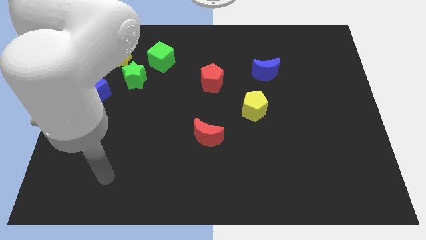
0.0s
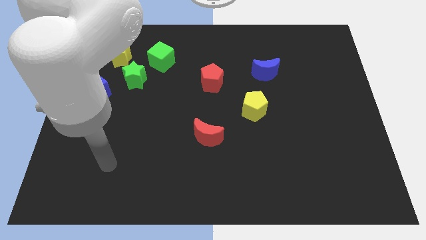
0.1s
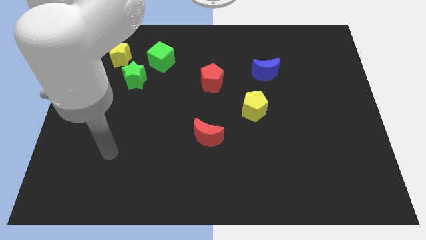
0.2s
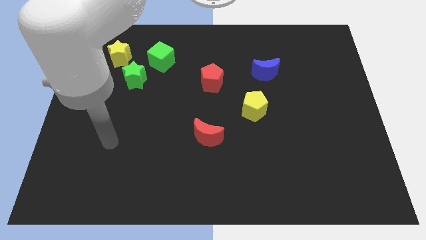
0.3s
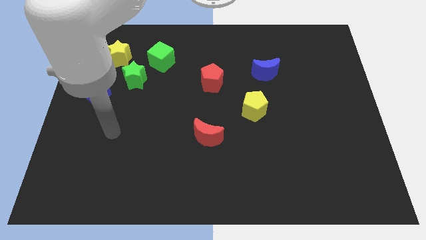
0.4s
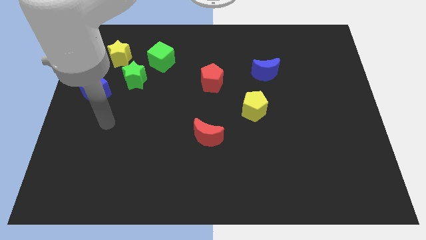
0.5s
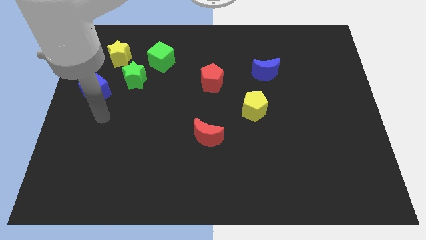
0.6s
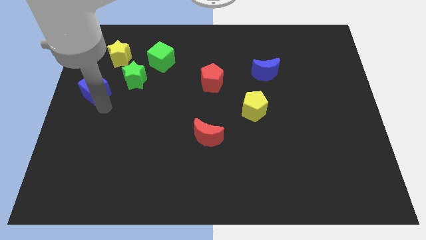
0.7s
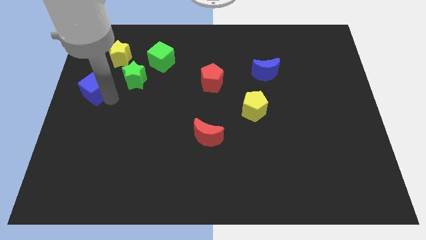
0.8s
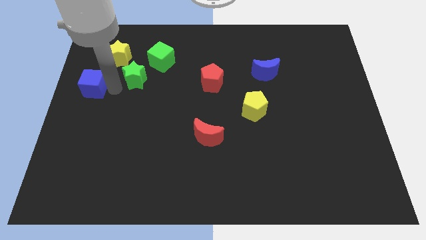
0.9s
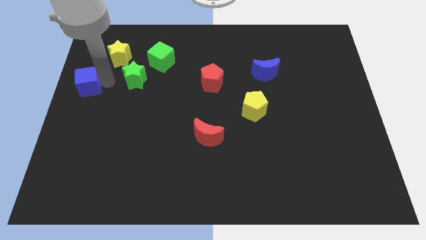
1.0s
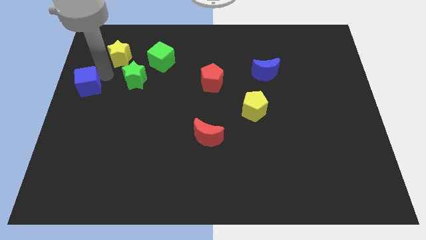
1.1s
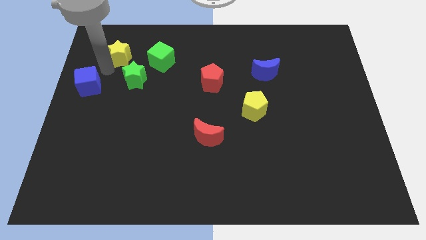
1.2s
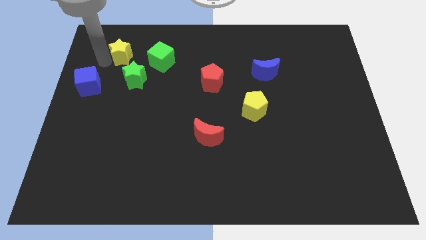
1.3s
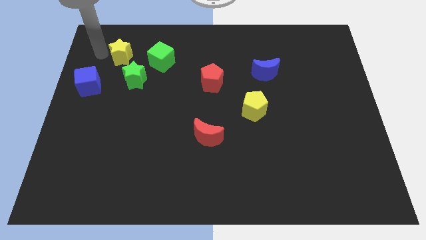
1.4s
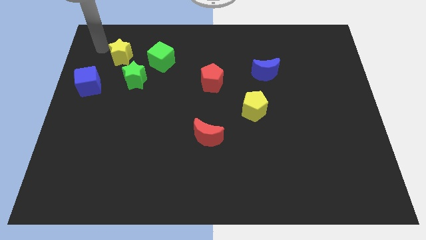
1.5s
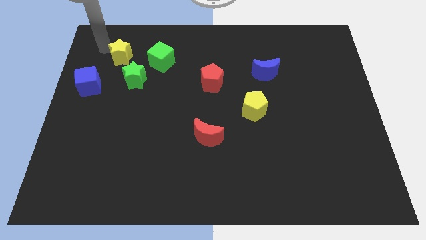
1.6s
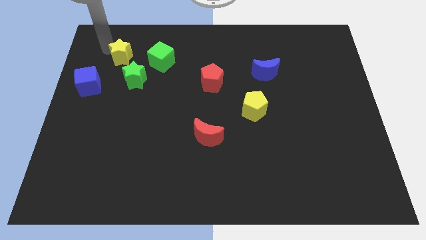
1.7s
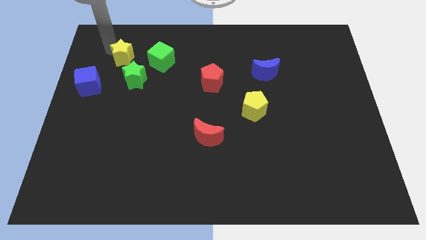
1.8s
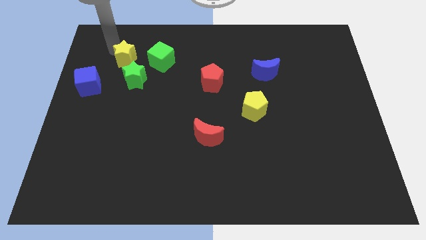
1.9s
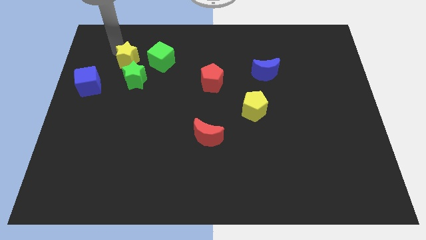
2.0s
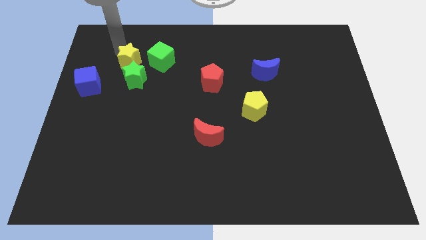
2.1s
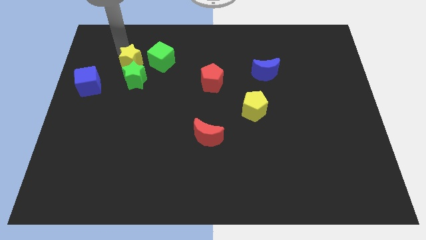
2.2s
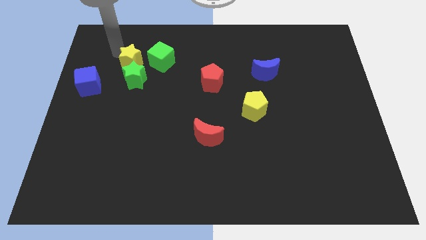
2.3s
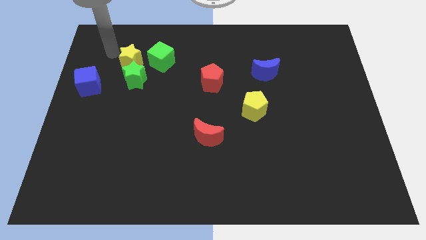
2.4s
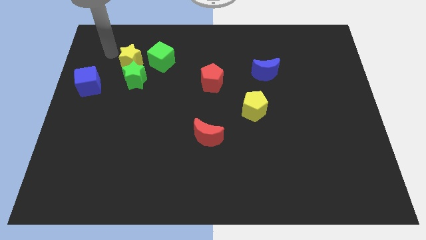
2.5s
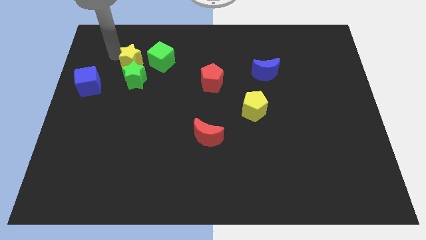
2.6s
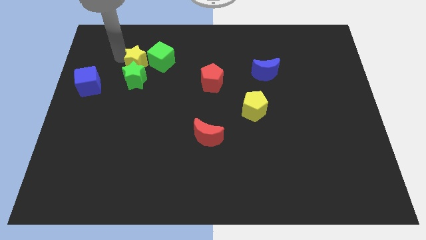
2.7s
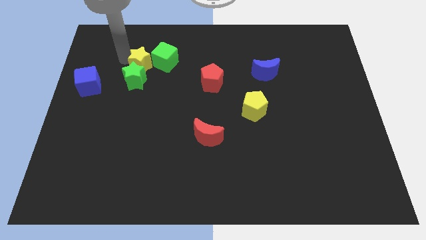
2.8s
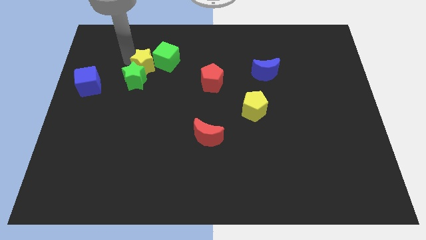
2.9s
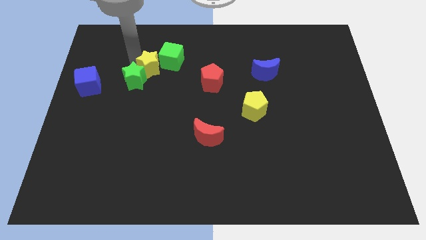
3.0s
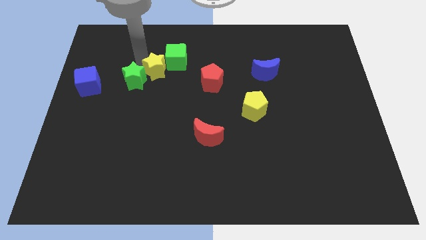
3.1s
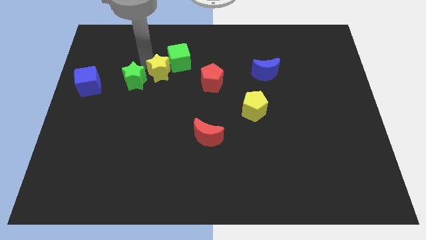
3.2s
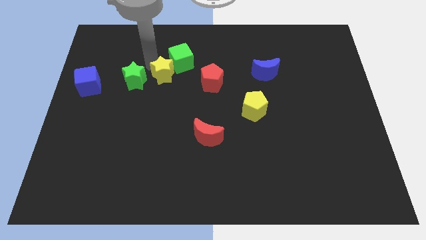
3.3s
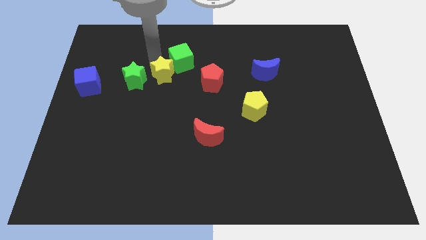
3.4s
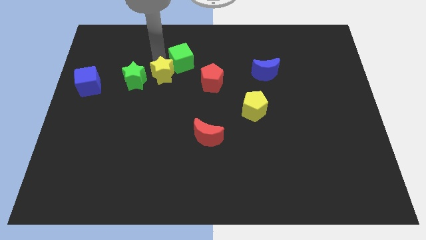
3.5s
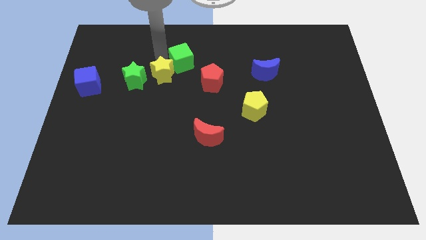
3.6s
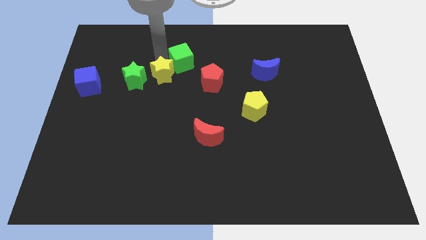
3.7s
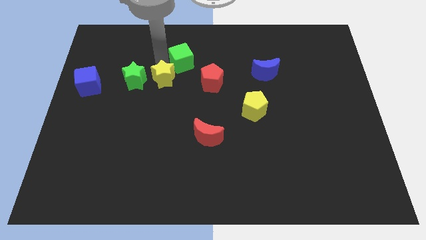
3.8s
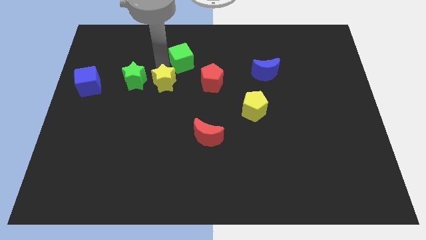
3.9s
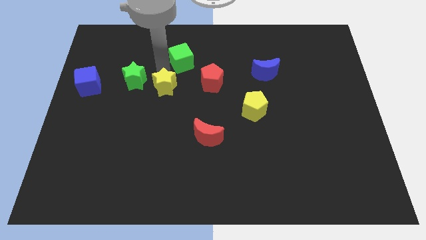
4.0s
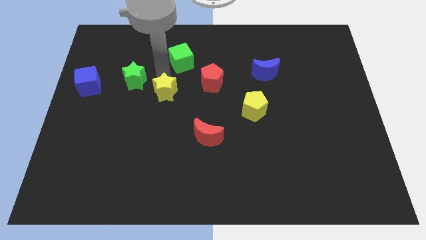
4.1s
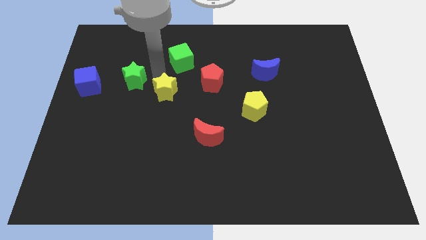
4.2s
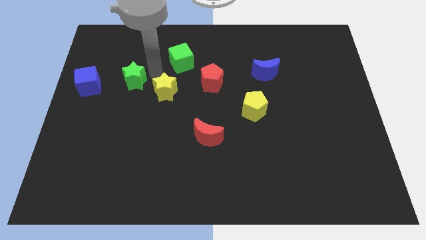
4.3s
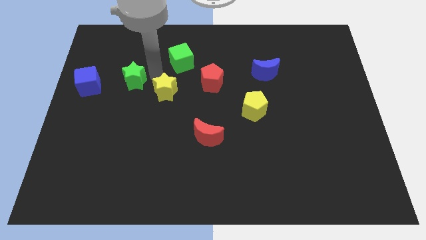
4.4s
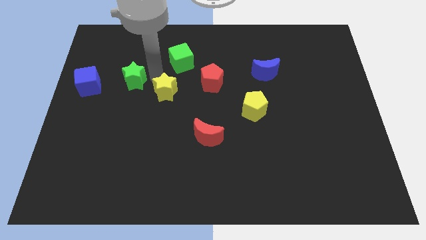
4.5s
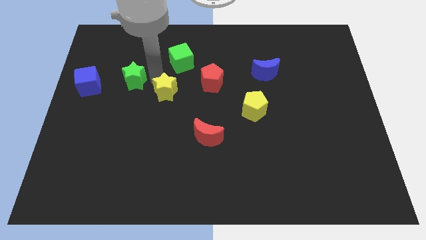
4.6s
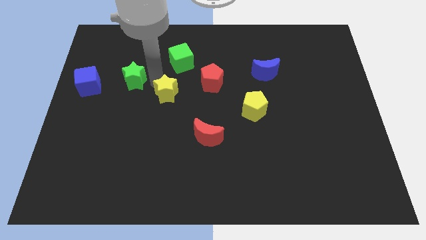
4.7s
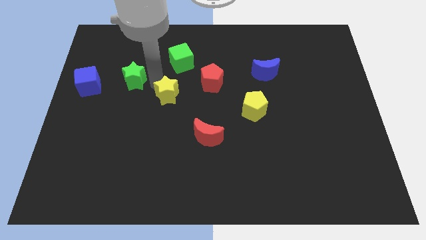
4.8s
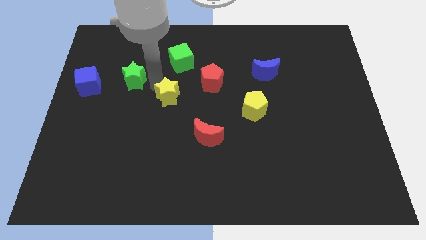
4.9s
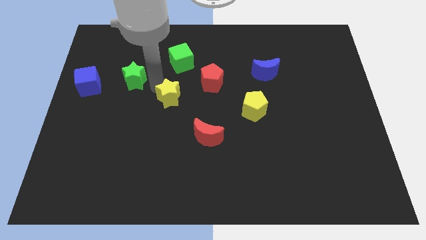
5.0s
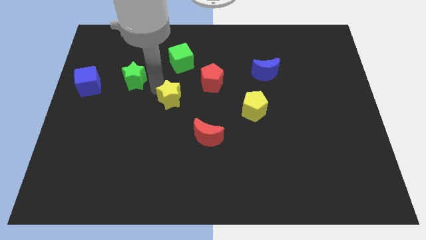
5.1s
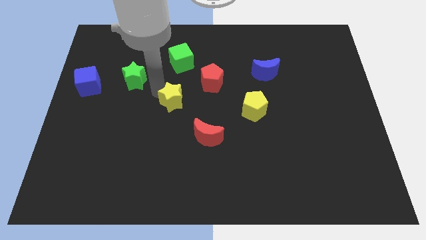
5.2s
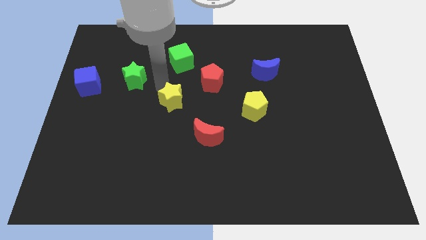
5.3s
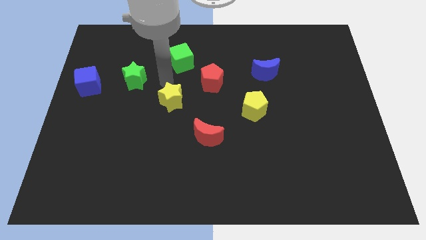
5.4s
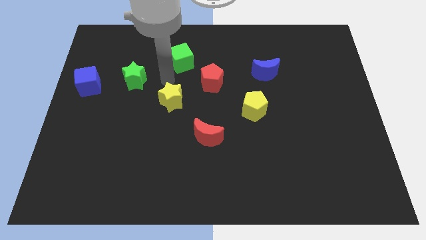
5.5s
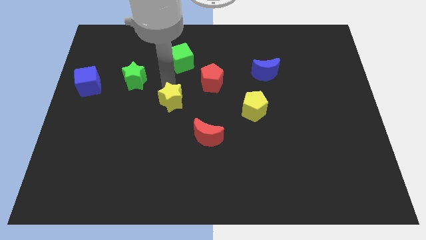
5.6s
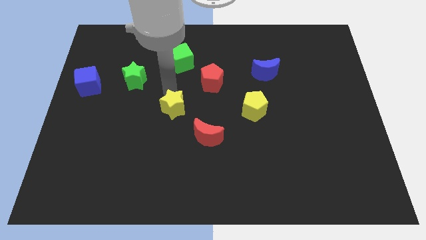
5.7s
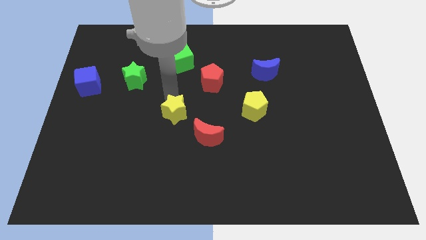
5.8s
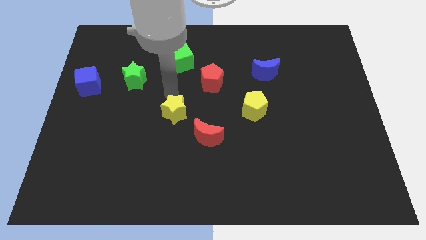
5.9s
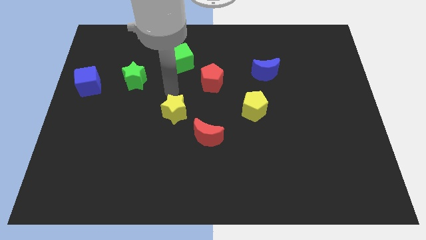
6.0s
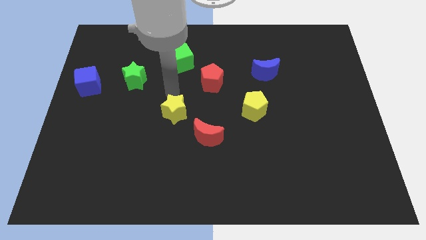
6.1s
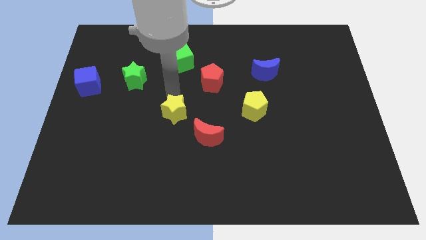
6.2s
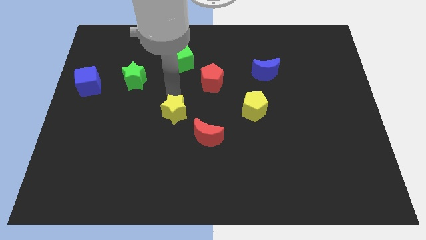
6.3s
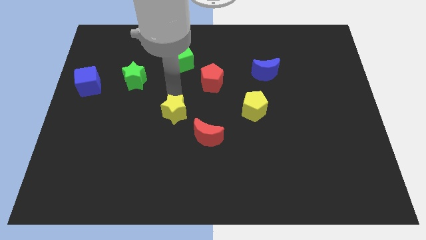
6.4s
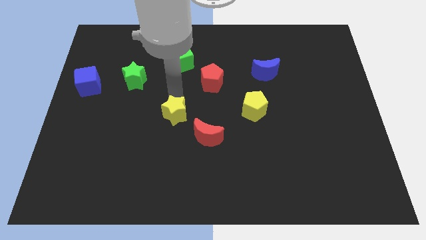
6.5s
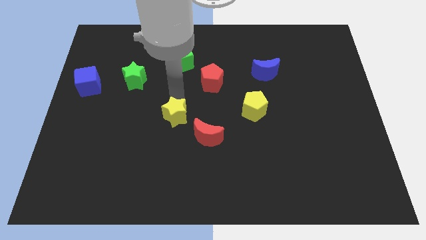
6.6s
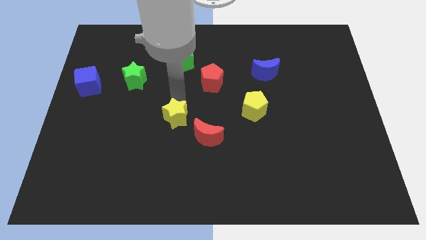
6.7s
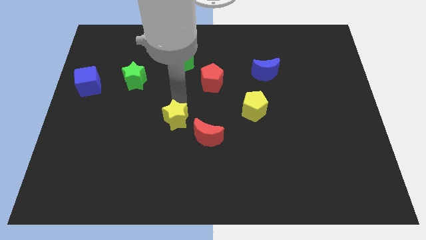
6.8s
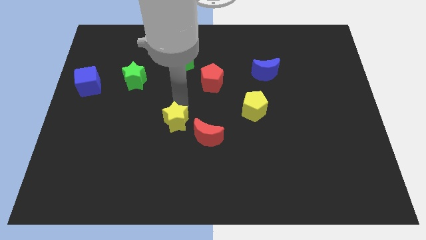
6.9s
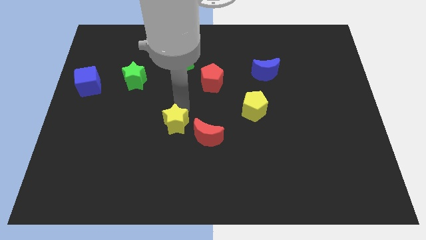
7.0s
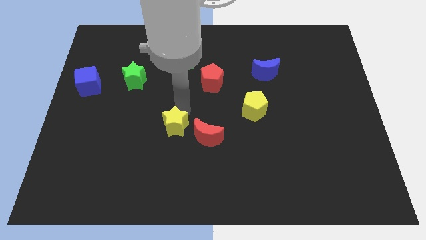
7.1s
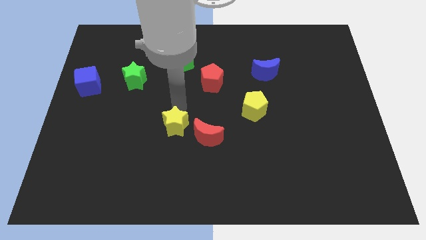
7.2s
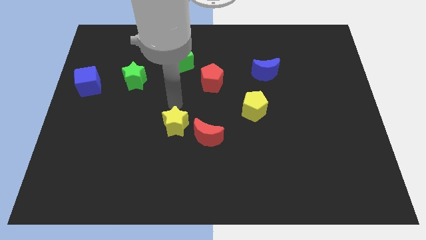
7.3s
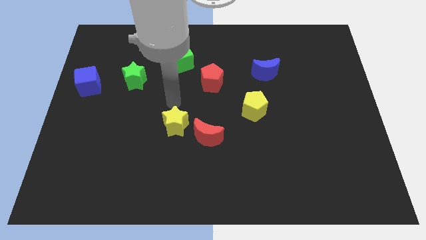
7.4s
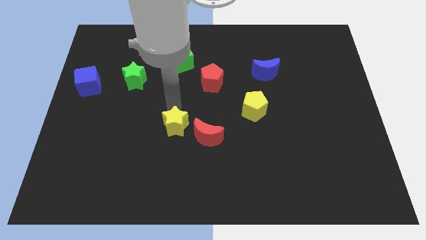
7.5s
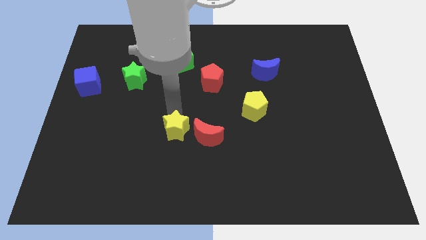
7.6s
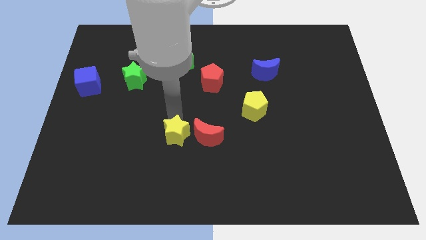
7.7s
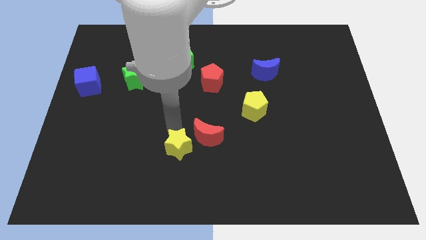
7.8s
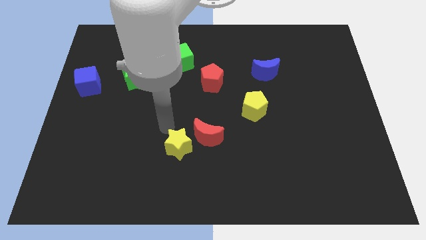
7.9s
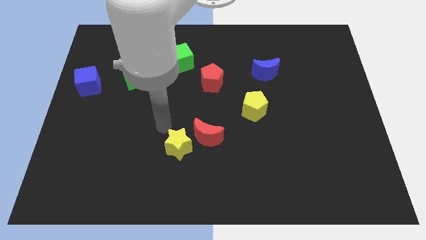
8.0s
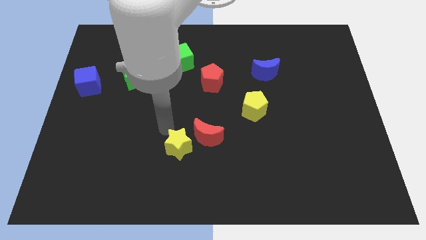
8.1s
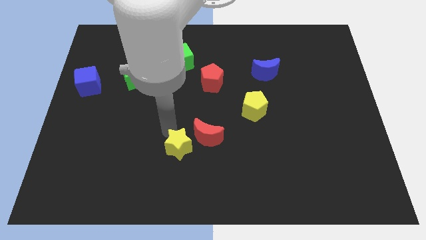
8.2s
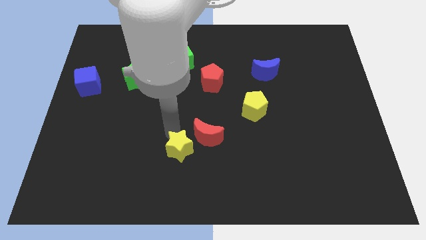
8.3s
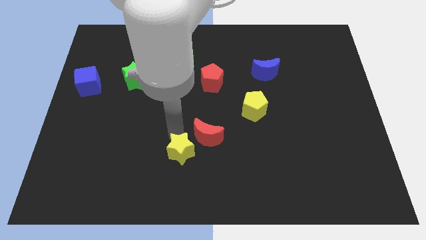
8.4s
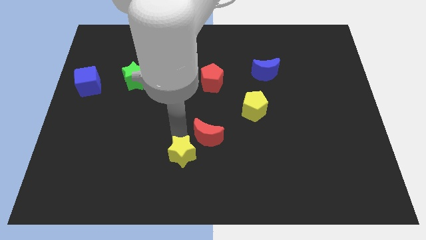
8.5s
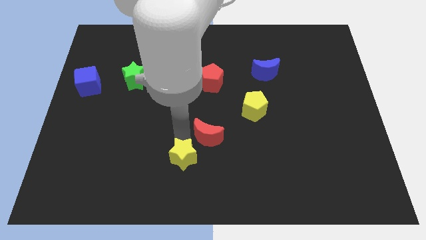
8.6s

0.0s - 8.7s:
slide the yellow star to the bottom side of the red moon
